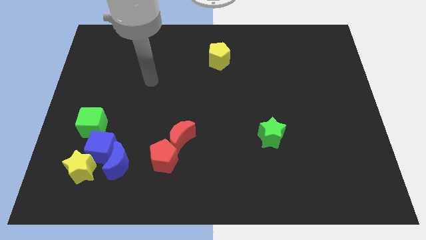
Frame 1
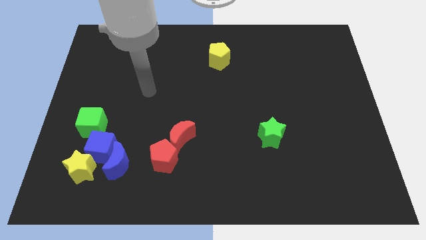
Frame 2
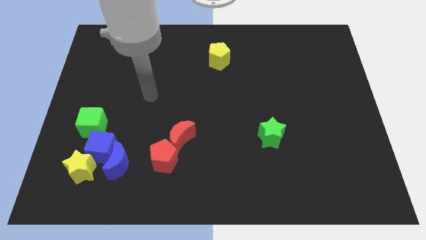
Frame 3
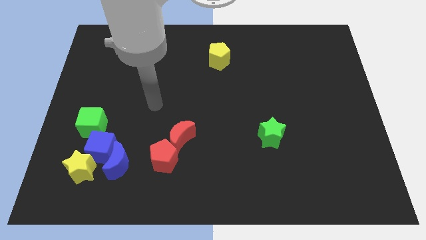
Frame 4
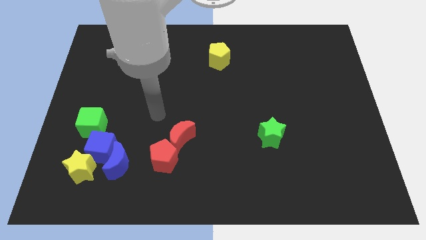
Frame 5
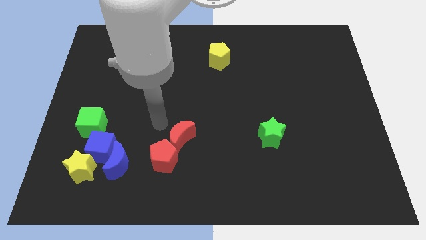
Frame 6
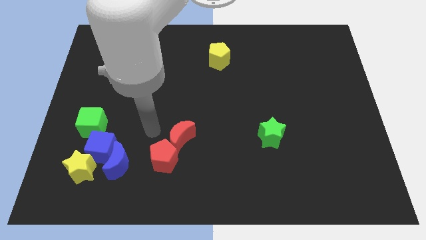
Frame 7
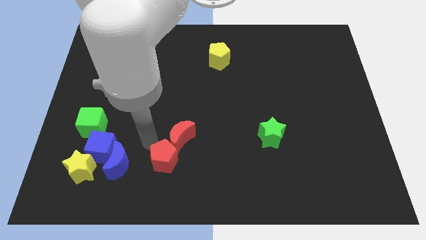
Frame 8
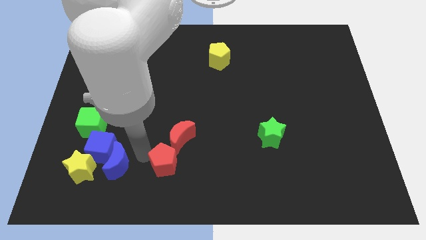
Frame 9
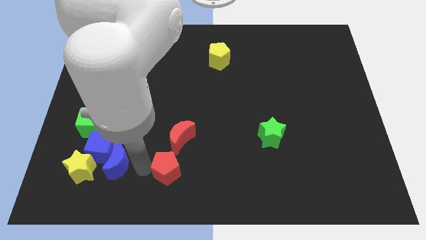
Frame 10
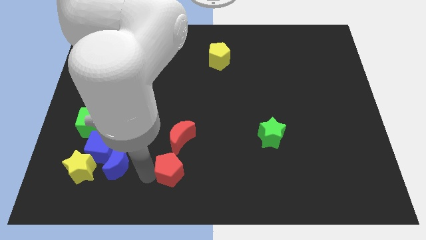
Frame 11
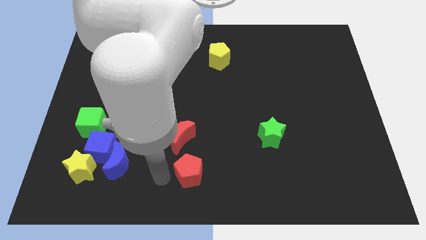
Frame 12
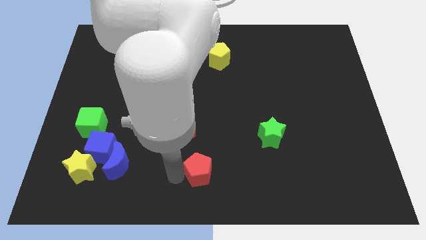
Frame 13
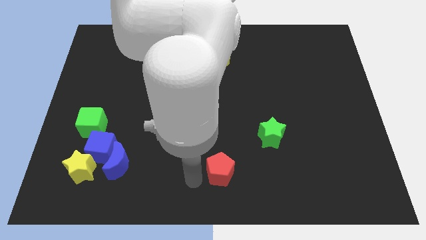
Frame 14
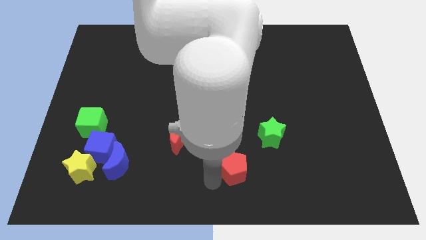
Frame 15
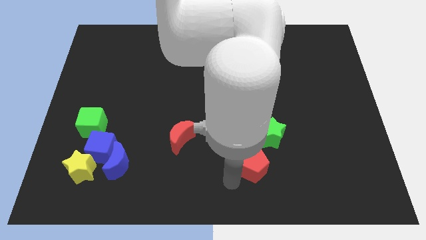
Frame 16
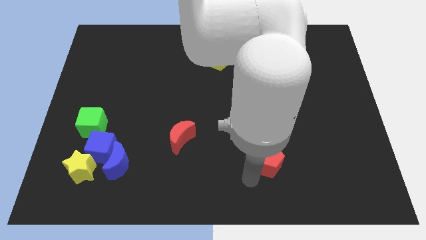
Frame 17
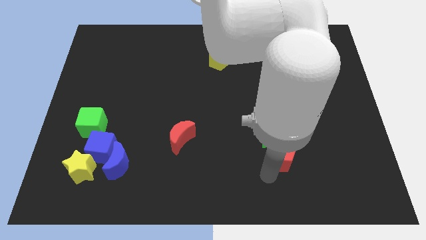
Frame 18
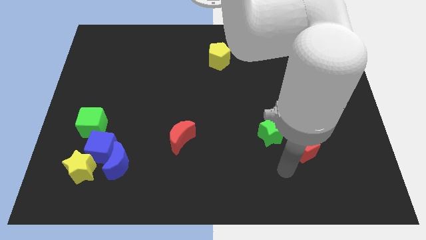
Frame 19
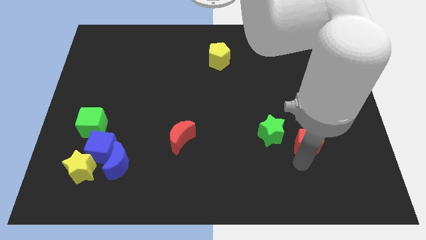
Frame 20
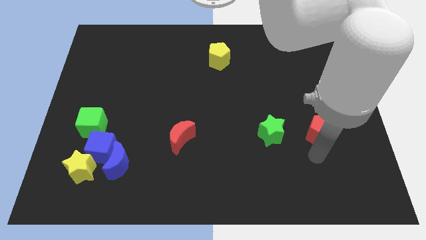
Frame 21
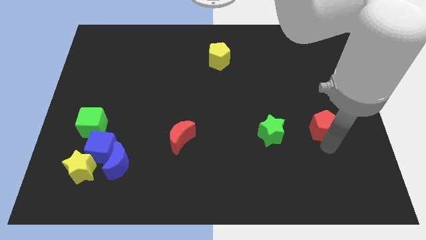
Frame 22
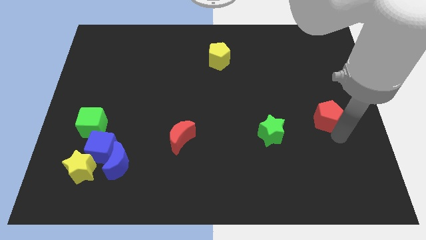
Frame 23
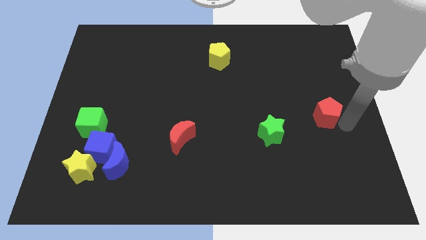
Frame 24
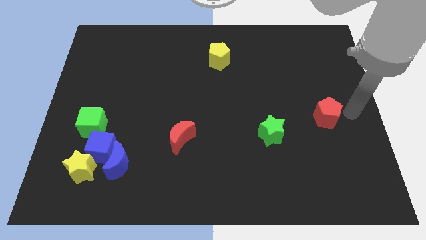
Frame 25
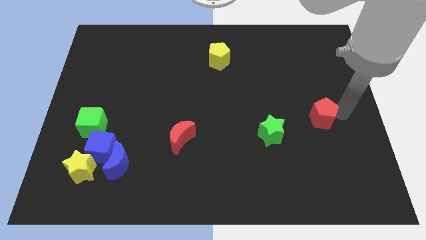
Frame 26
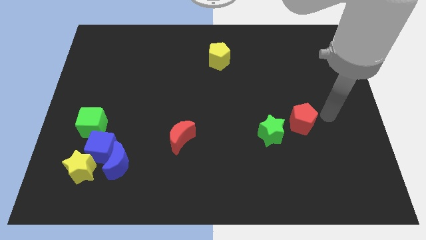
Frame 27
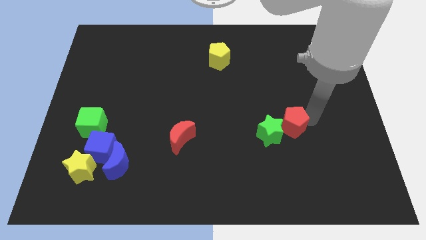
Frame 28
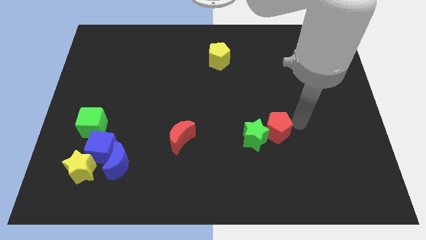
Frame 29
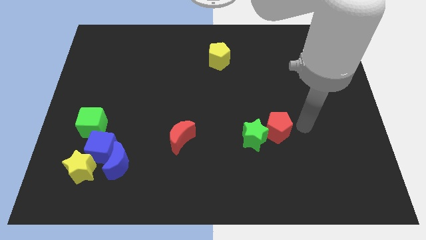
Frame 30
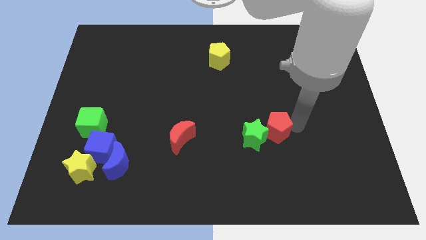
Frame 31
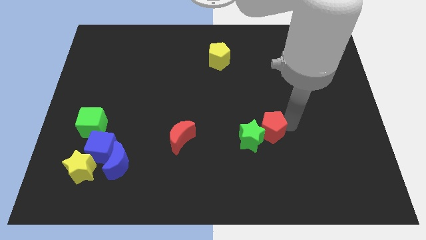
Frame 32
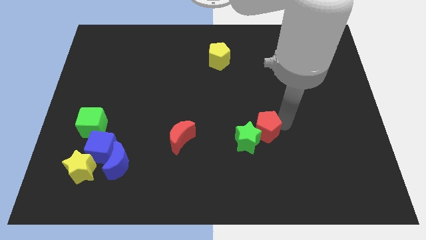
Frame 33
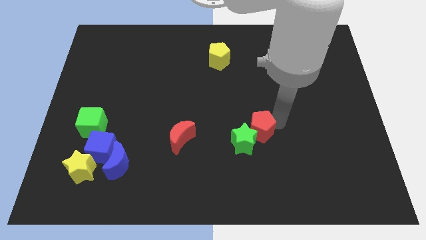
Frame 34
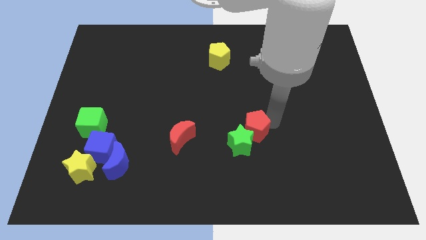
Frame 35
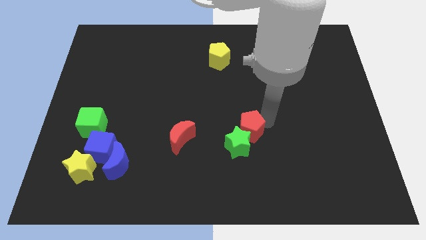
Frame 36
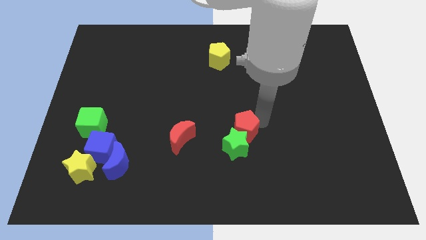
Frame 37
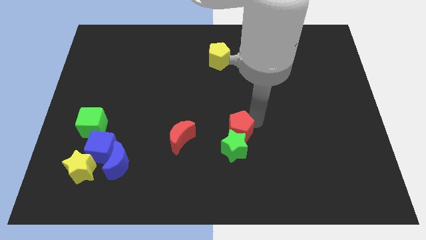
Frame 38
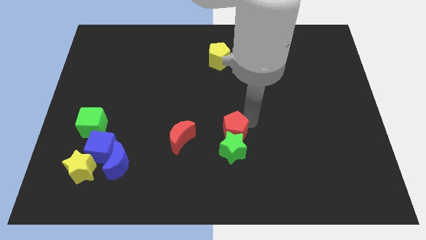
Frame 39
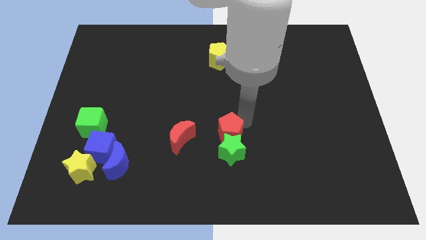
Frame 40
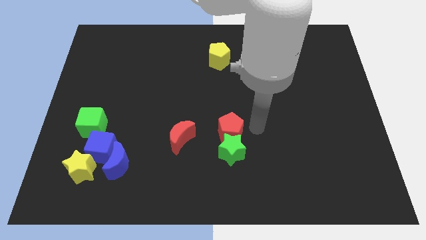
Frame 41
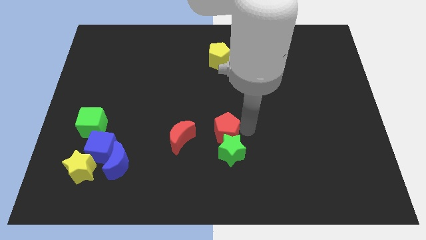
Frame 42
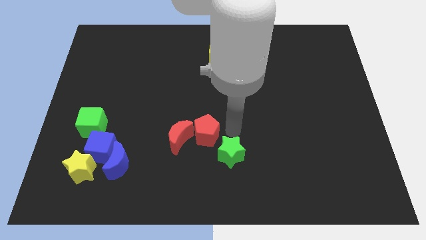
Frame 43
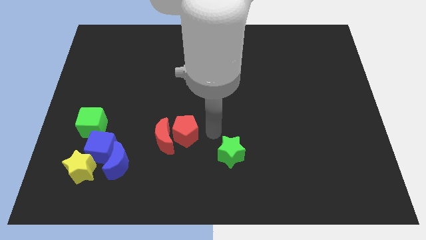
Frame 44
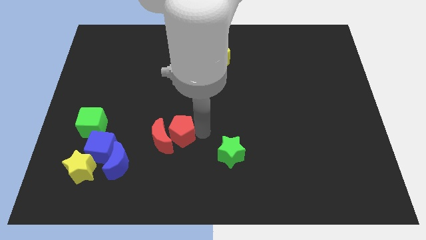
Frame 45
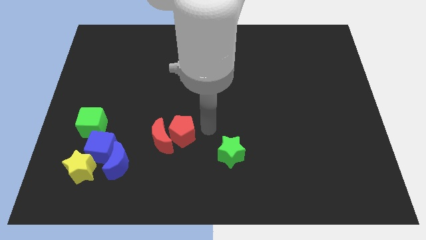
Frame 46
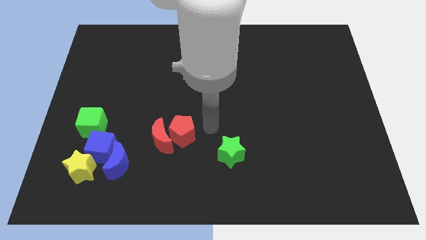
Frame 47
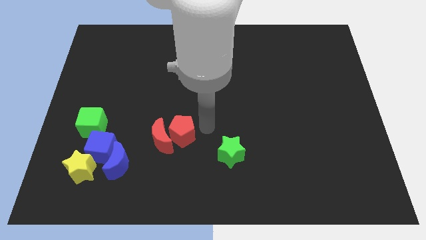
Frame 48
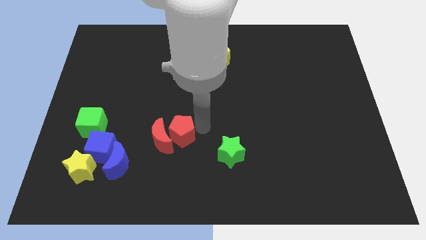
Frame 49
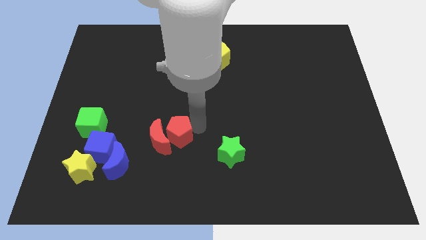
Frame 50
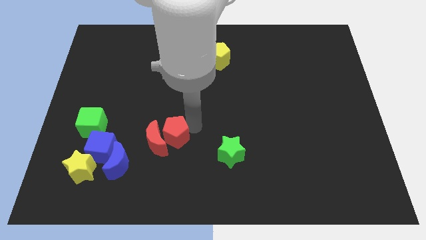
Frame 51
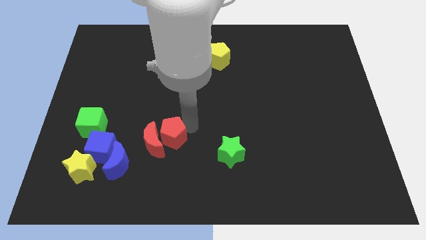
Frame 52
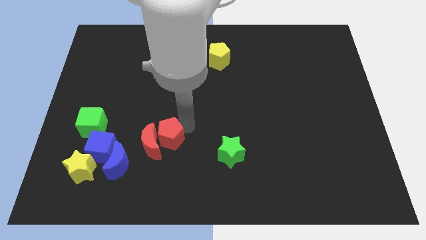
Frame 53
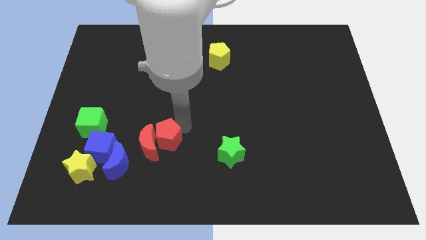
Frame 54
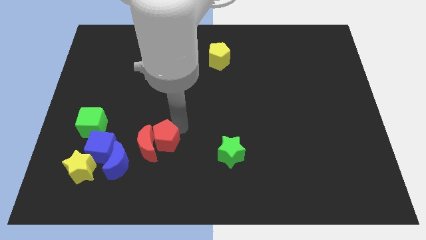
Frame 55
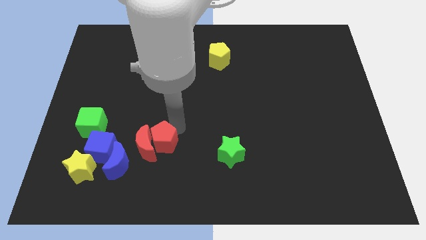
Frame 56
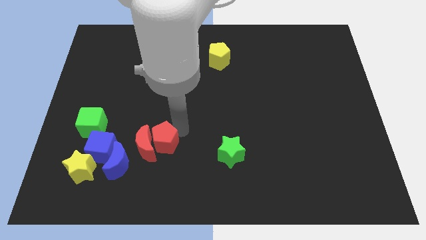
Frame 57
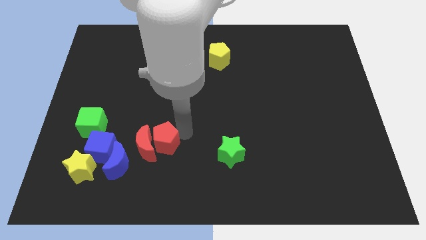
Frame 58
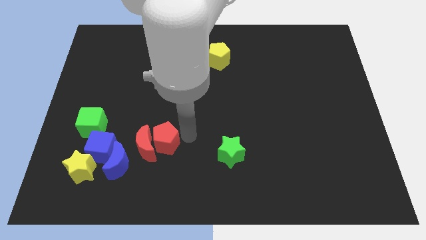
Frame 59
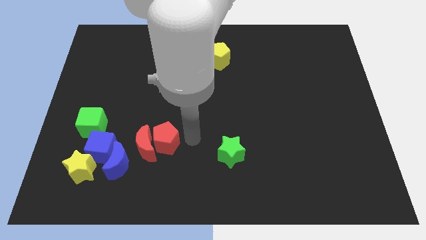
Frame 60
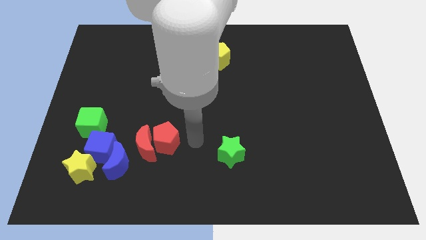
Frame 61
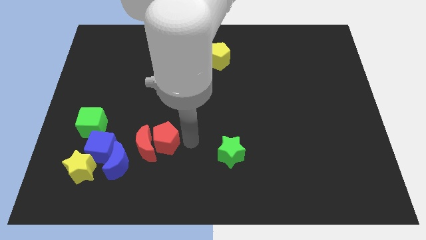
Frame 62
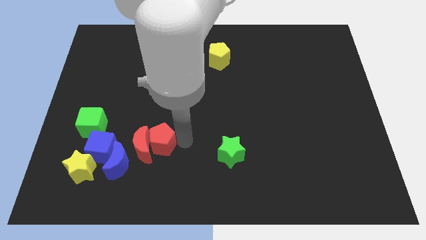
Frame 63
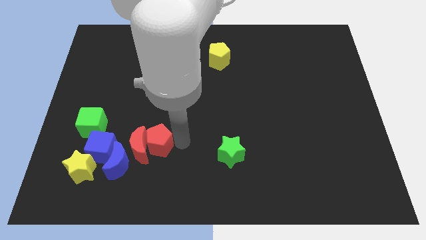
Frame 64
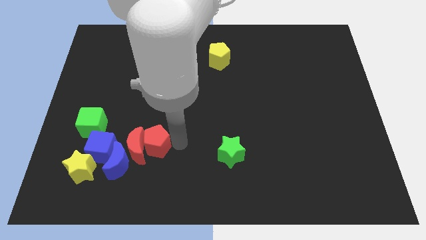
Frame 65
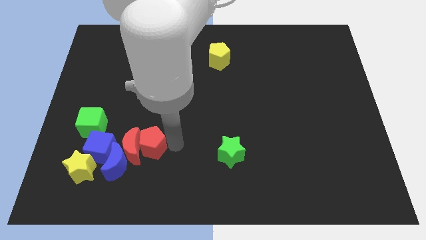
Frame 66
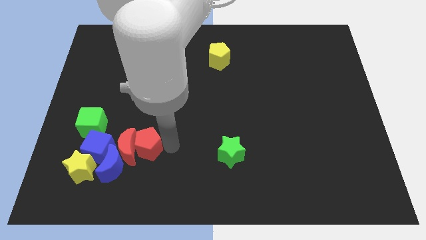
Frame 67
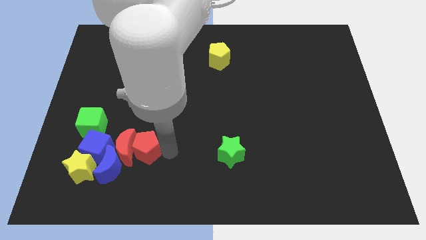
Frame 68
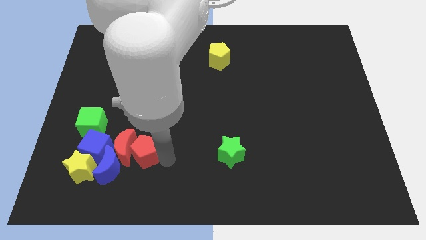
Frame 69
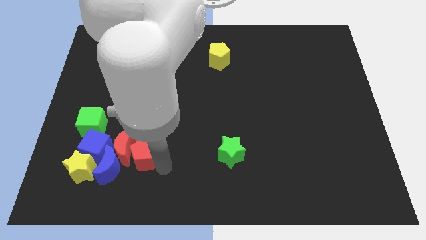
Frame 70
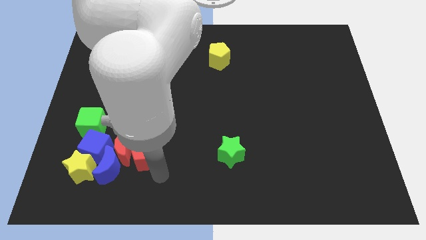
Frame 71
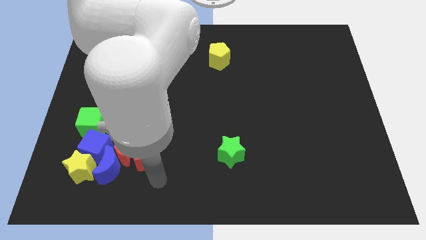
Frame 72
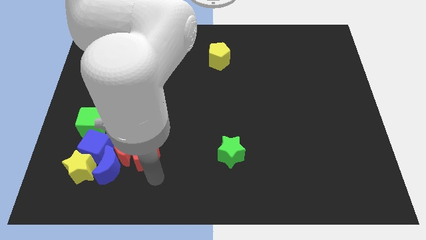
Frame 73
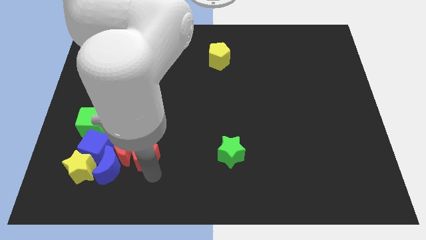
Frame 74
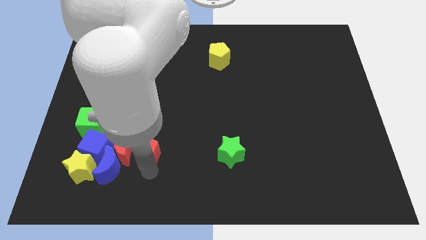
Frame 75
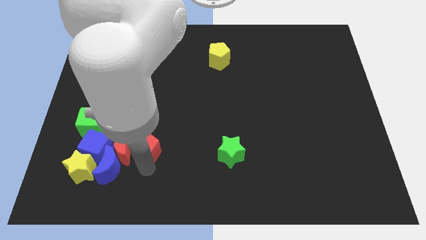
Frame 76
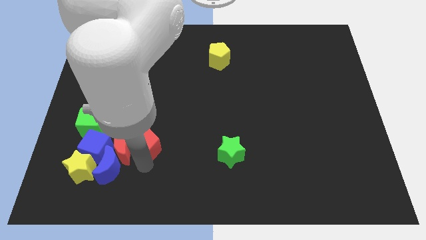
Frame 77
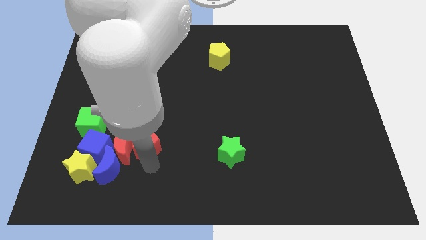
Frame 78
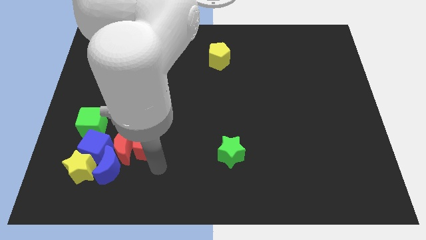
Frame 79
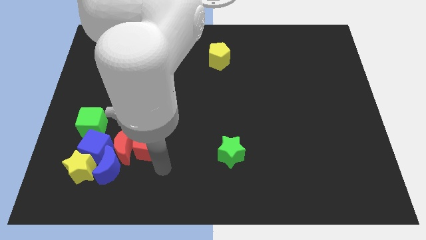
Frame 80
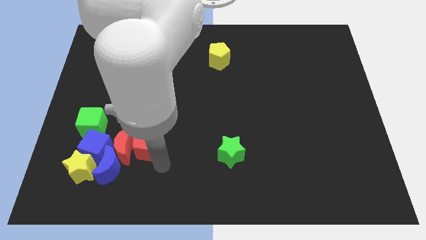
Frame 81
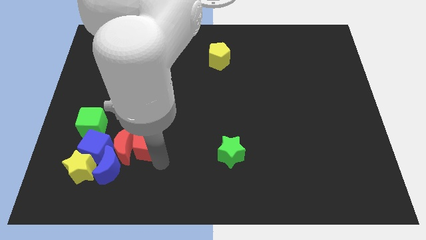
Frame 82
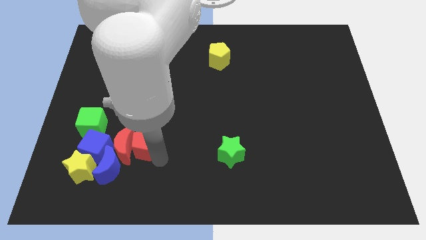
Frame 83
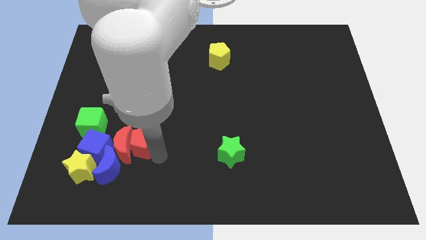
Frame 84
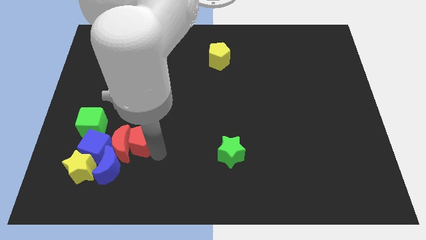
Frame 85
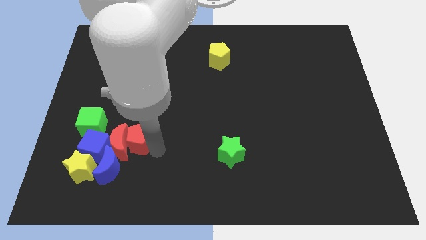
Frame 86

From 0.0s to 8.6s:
push the red pentagon upwards and left a little
